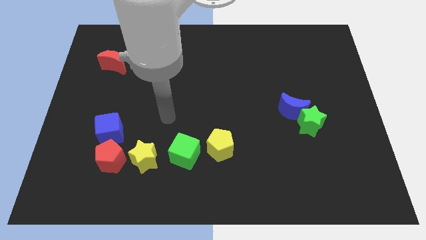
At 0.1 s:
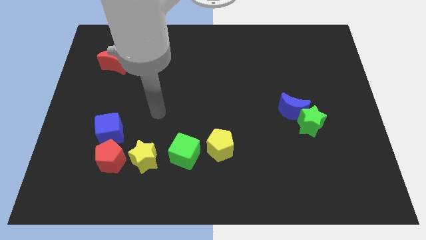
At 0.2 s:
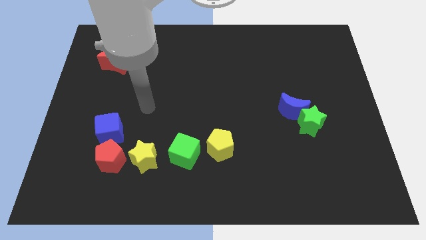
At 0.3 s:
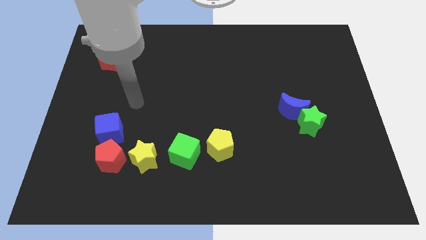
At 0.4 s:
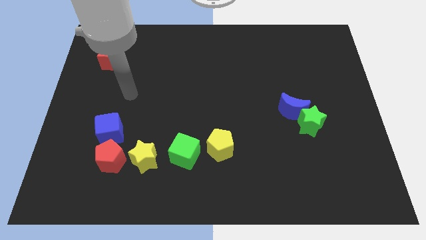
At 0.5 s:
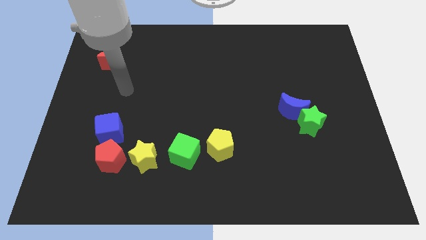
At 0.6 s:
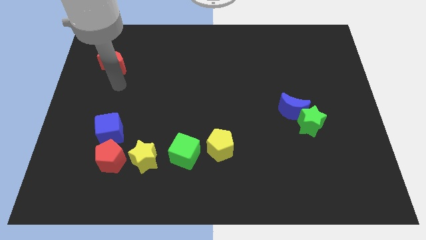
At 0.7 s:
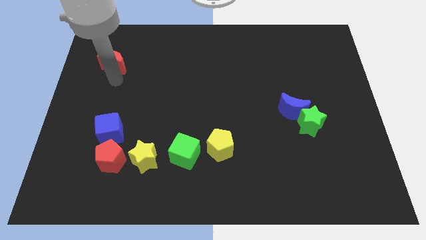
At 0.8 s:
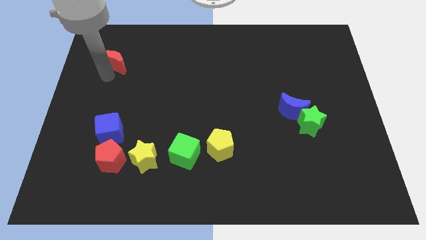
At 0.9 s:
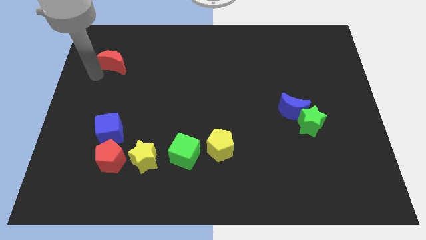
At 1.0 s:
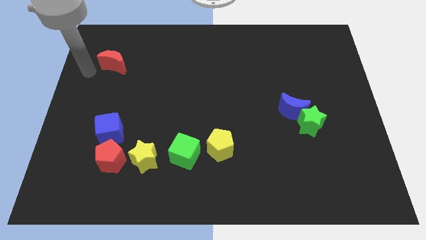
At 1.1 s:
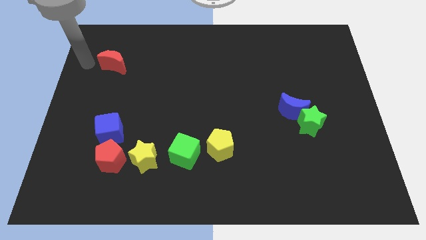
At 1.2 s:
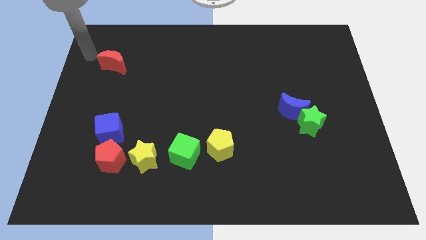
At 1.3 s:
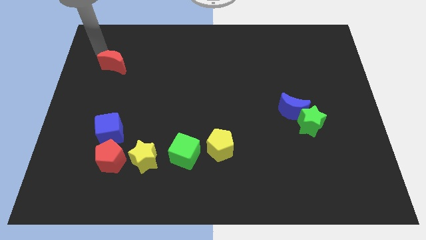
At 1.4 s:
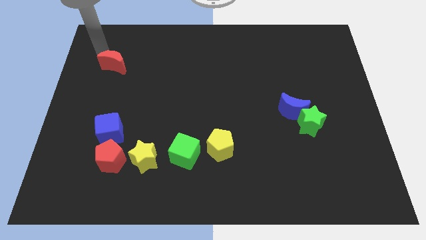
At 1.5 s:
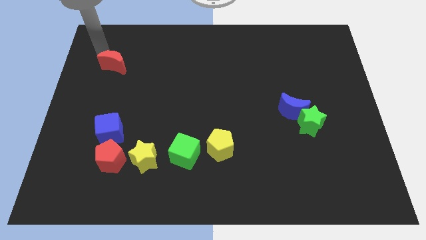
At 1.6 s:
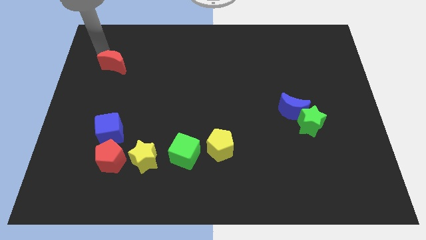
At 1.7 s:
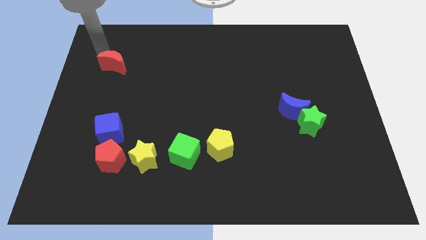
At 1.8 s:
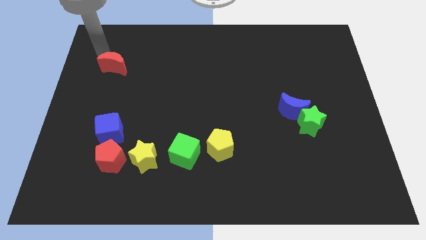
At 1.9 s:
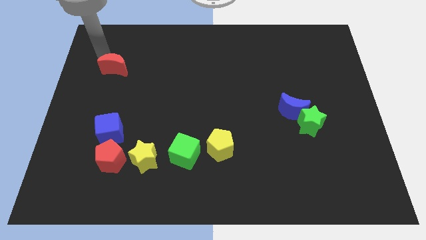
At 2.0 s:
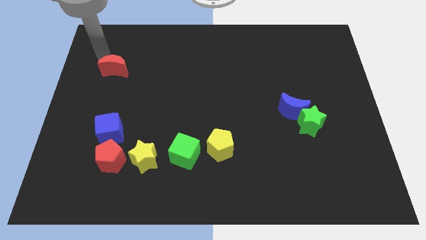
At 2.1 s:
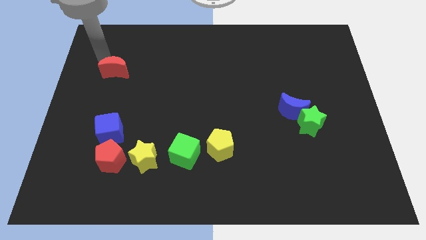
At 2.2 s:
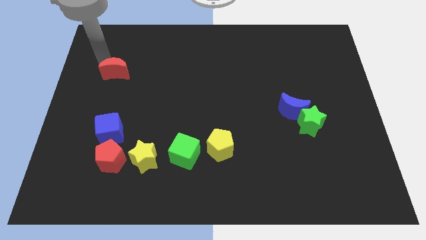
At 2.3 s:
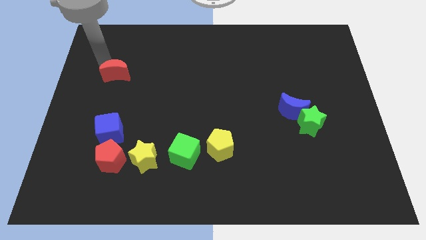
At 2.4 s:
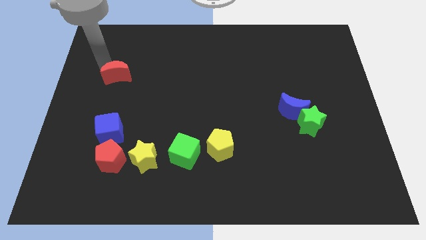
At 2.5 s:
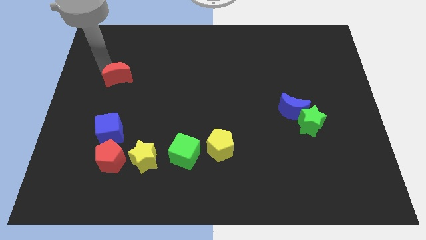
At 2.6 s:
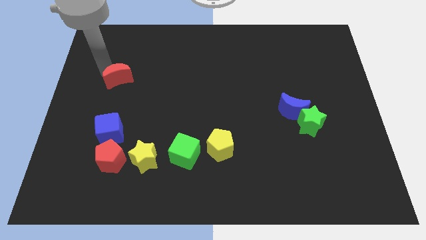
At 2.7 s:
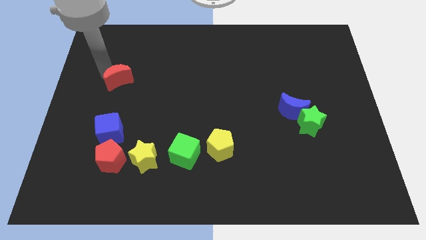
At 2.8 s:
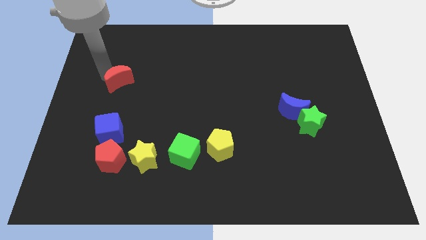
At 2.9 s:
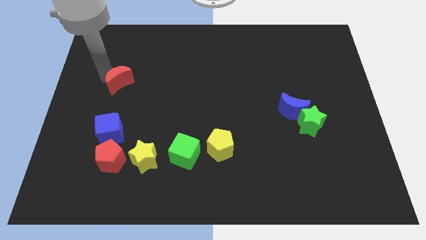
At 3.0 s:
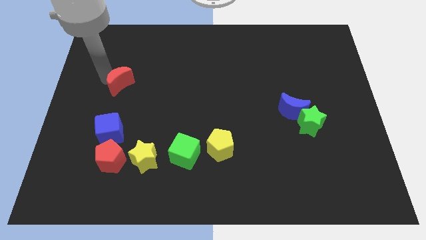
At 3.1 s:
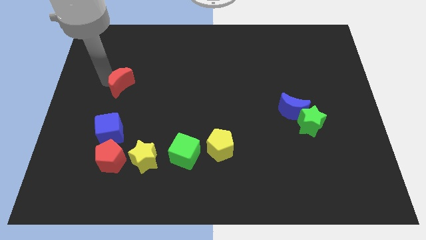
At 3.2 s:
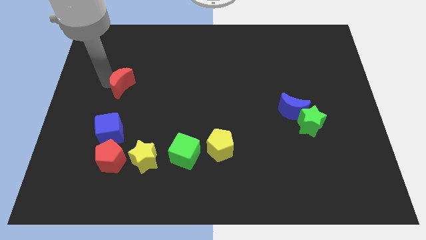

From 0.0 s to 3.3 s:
push the red moon a bit diagonally down and to the right

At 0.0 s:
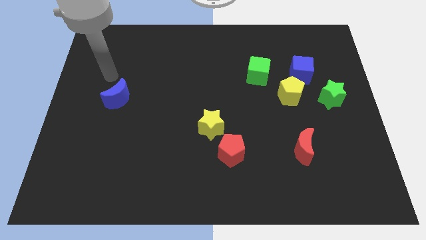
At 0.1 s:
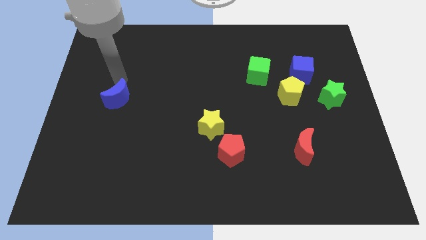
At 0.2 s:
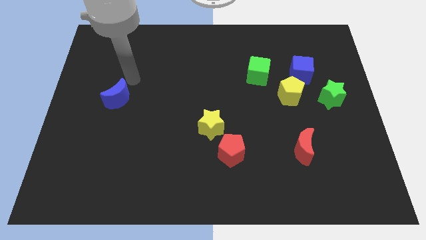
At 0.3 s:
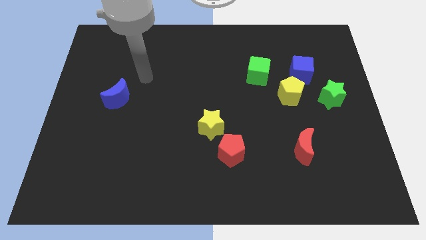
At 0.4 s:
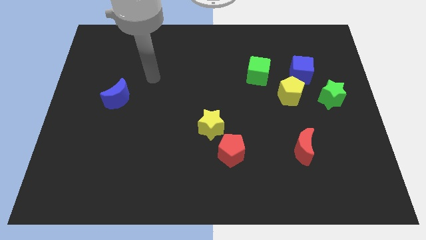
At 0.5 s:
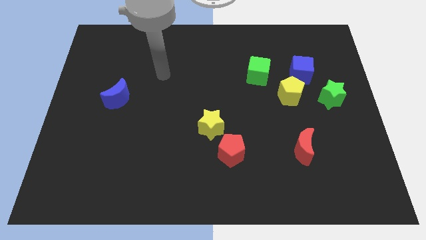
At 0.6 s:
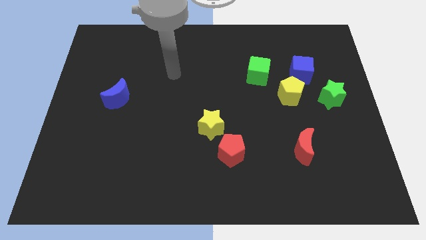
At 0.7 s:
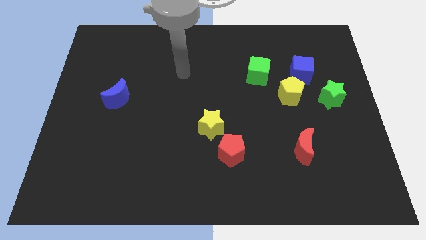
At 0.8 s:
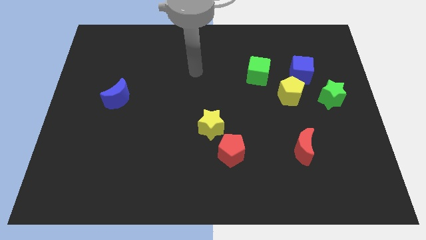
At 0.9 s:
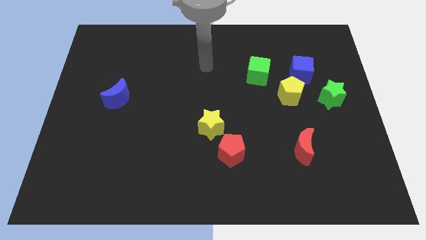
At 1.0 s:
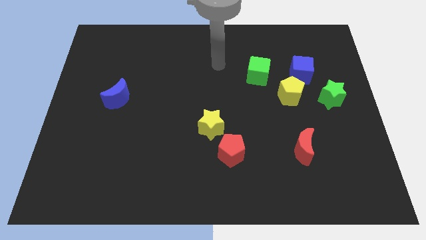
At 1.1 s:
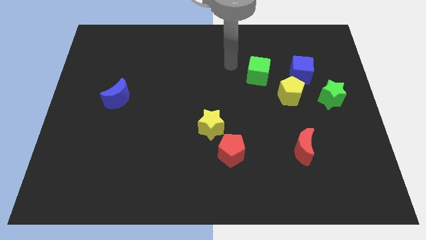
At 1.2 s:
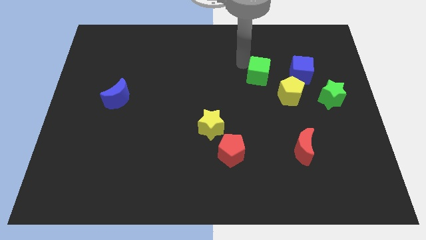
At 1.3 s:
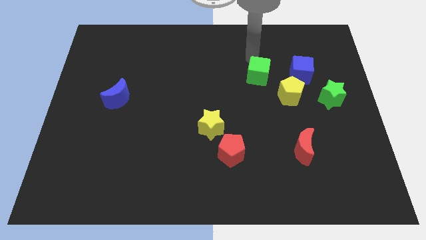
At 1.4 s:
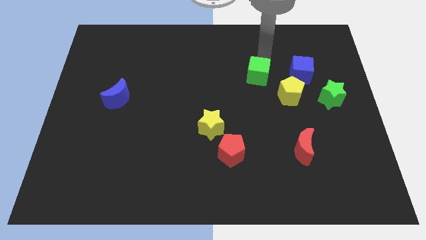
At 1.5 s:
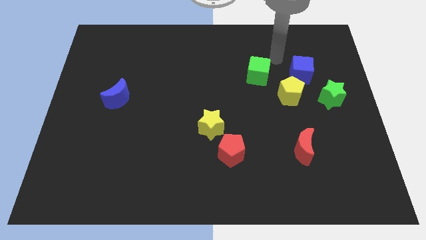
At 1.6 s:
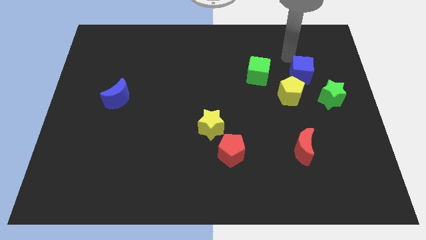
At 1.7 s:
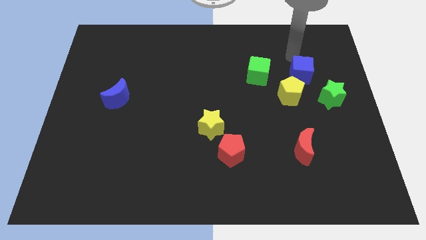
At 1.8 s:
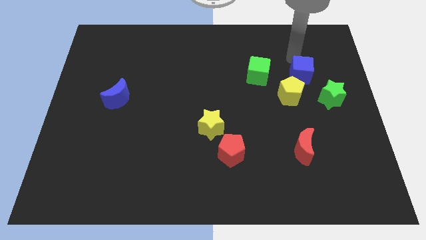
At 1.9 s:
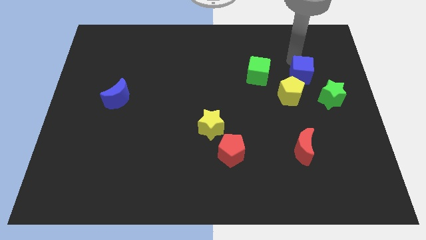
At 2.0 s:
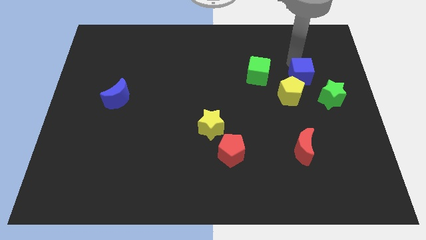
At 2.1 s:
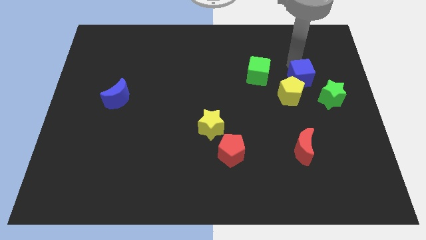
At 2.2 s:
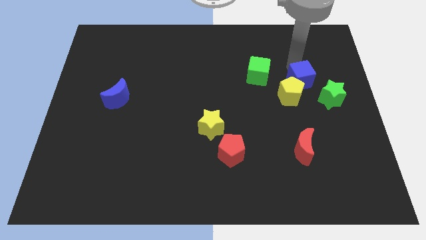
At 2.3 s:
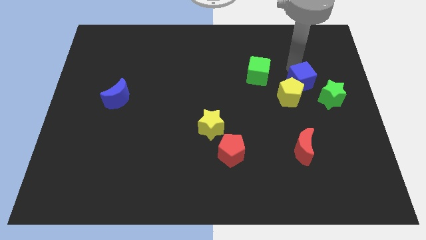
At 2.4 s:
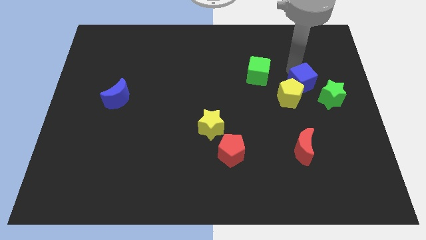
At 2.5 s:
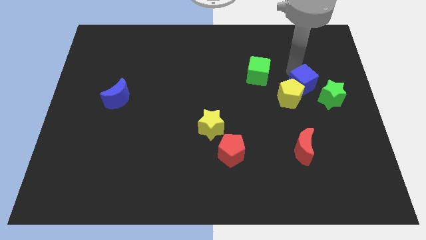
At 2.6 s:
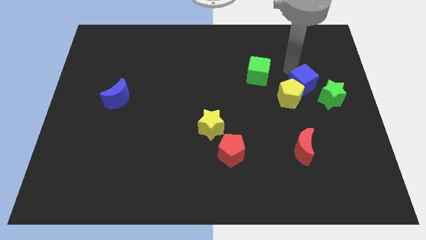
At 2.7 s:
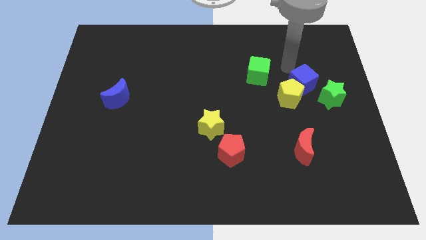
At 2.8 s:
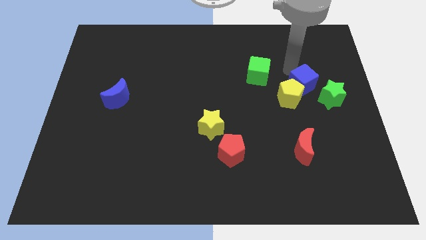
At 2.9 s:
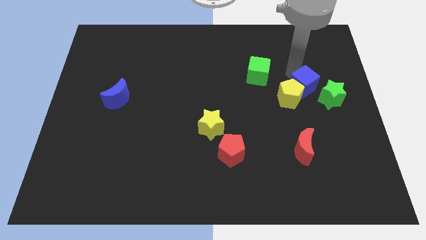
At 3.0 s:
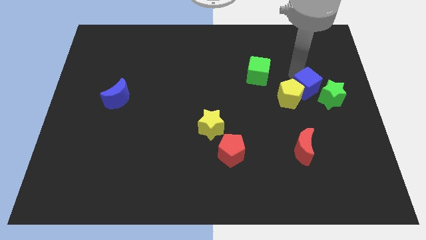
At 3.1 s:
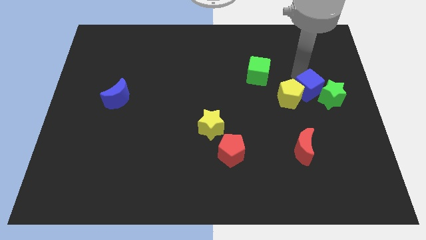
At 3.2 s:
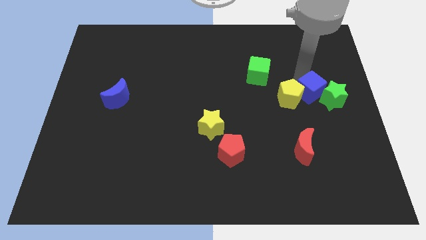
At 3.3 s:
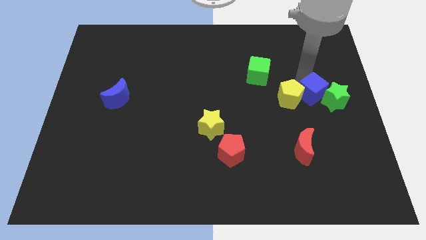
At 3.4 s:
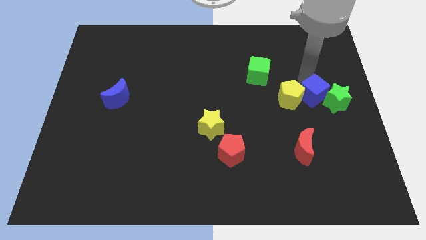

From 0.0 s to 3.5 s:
push the blue cube slightly down

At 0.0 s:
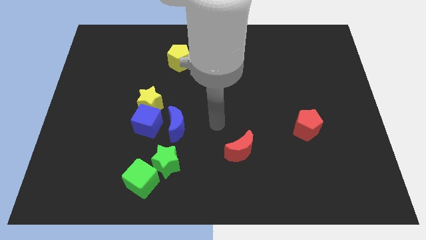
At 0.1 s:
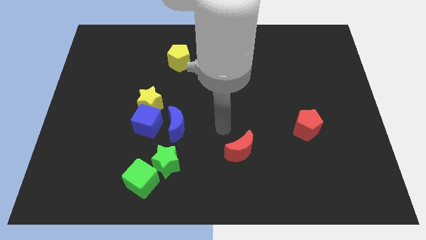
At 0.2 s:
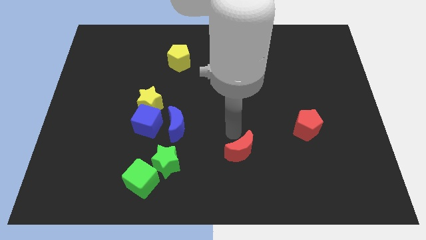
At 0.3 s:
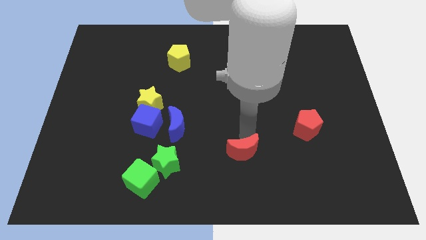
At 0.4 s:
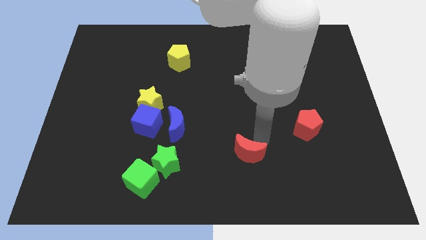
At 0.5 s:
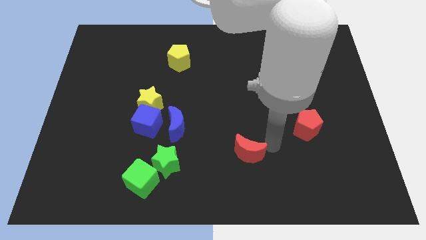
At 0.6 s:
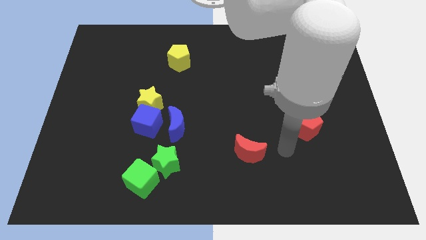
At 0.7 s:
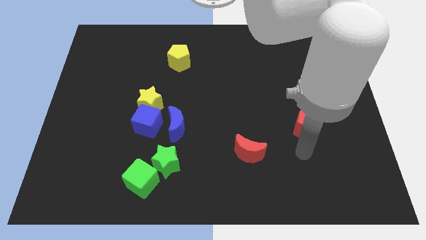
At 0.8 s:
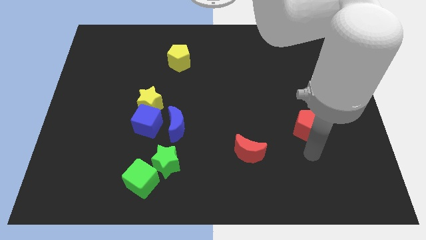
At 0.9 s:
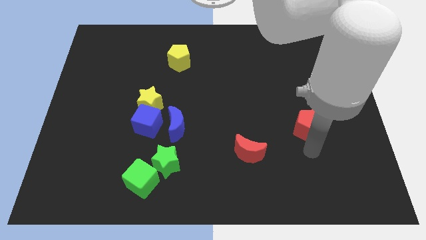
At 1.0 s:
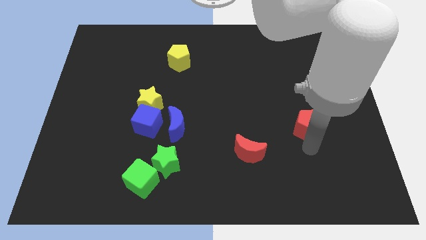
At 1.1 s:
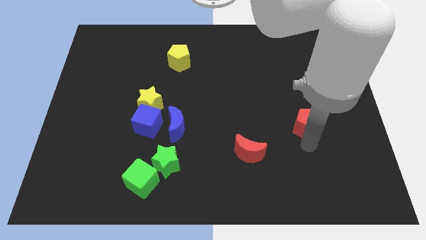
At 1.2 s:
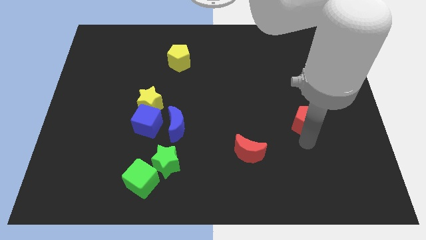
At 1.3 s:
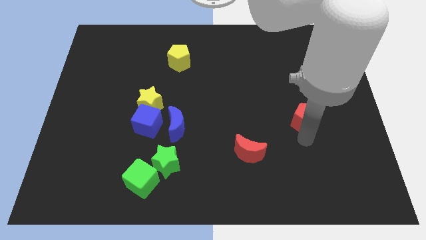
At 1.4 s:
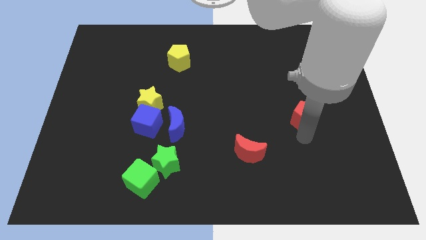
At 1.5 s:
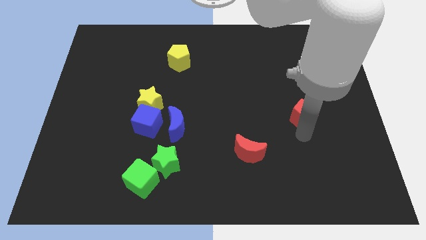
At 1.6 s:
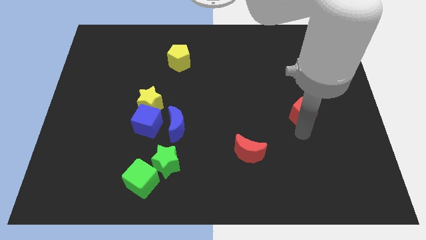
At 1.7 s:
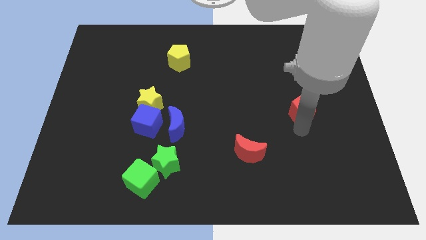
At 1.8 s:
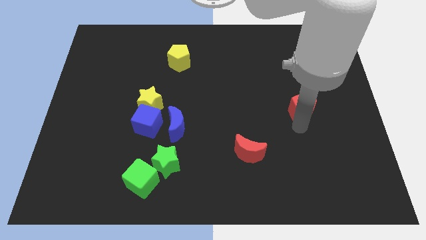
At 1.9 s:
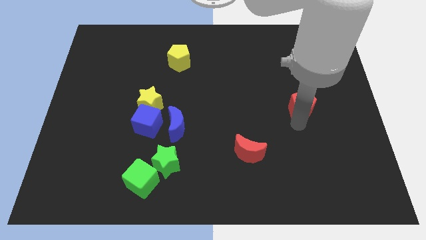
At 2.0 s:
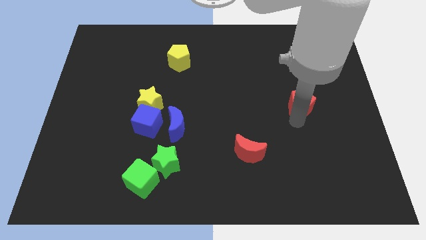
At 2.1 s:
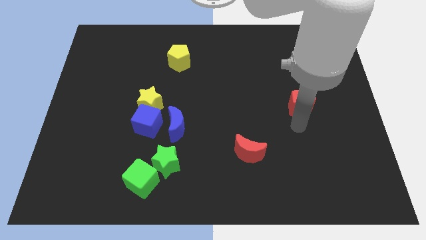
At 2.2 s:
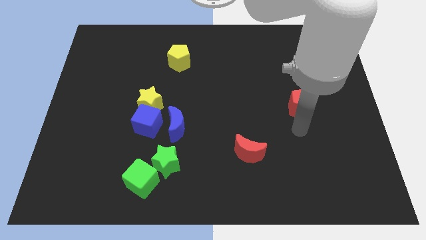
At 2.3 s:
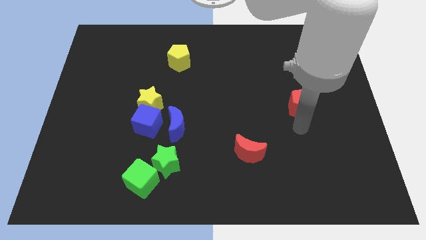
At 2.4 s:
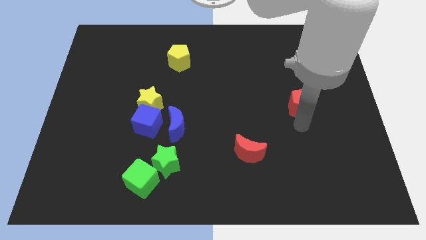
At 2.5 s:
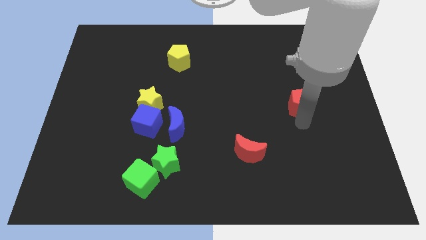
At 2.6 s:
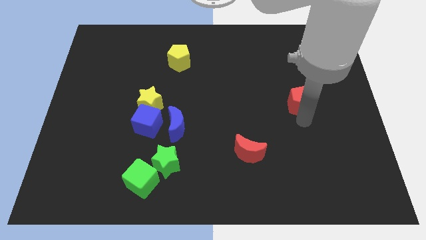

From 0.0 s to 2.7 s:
move the red pentagon a little up
